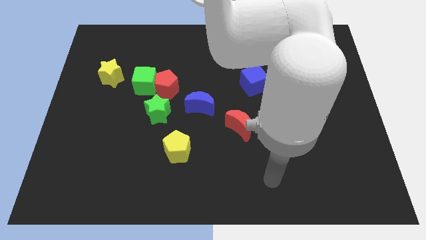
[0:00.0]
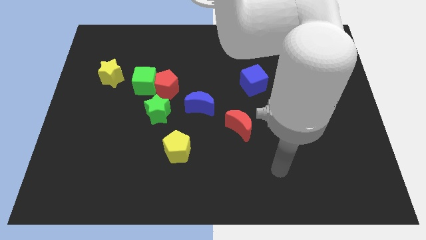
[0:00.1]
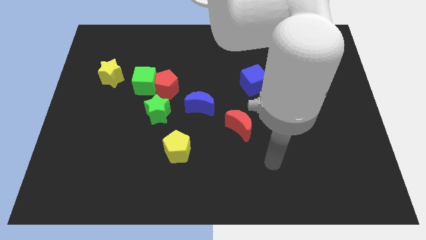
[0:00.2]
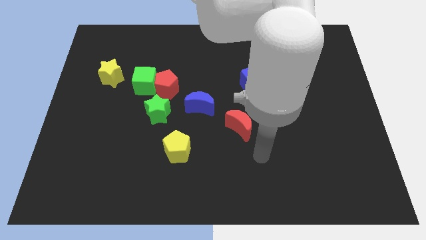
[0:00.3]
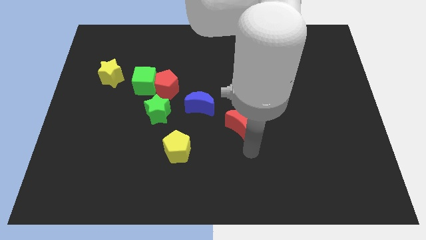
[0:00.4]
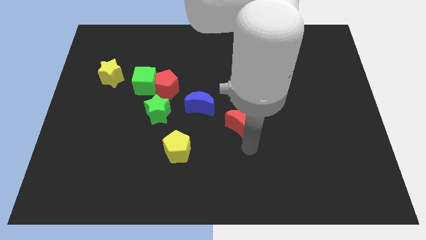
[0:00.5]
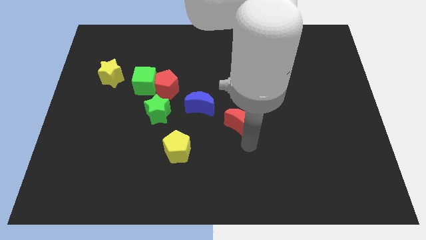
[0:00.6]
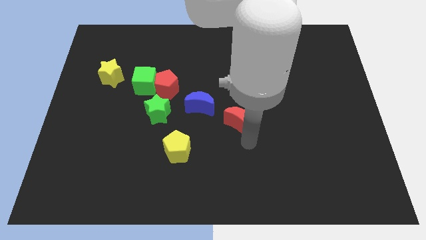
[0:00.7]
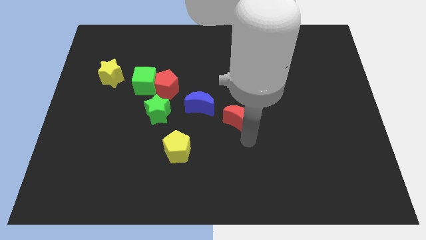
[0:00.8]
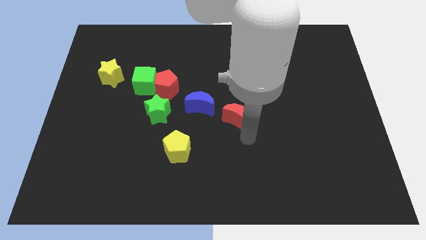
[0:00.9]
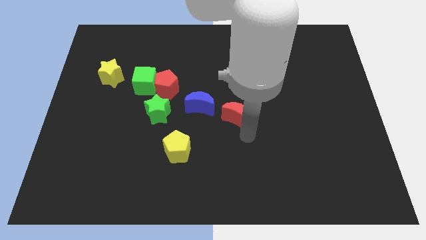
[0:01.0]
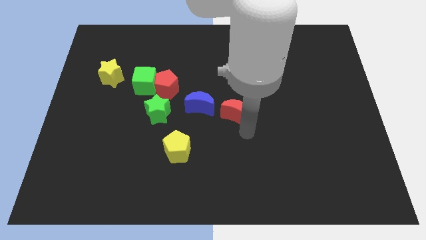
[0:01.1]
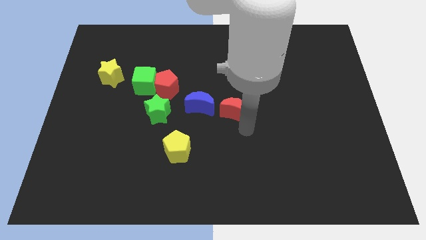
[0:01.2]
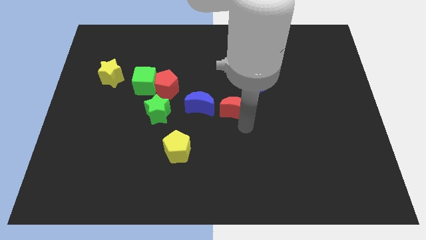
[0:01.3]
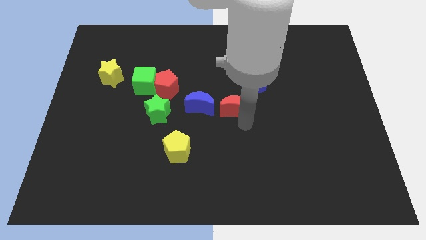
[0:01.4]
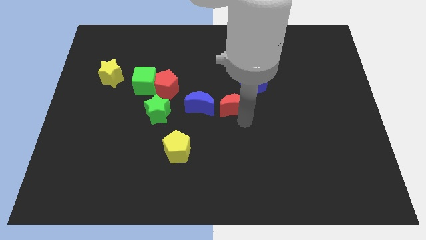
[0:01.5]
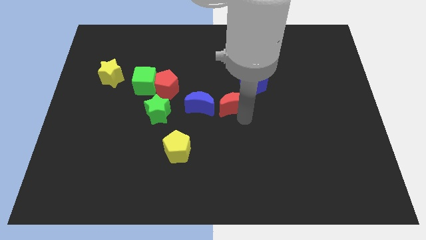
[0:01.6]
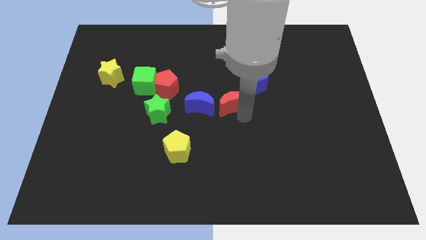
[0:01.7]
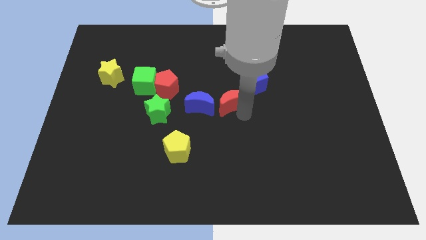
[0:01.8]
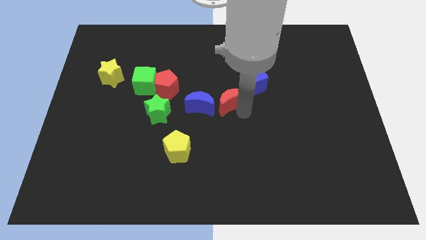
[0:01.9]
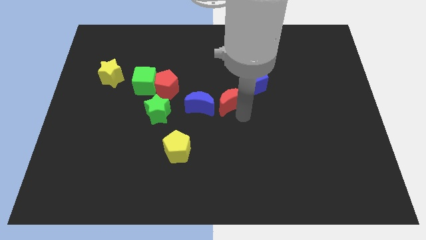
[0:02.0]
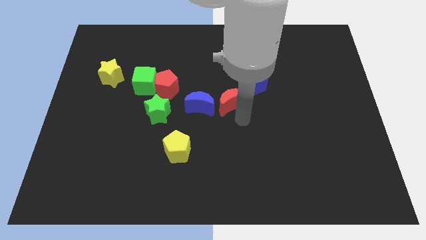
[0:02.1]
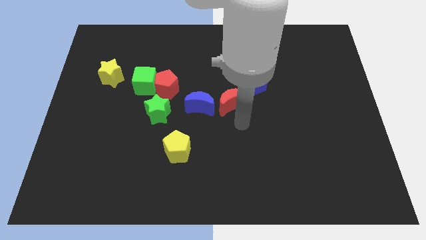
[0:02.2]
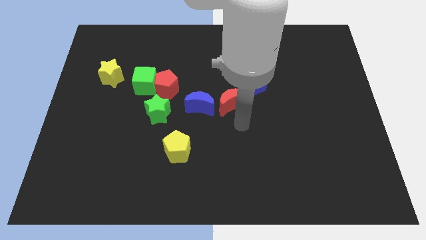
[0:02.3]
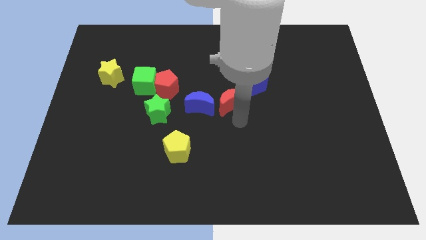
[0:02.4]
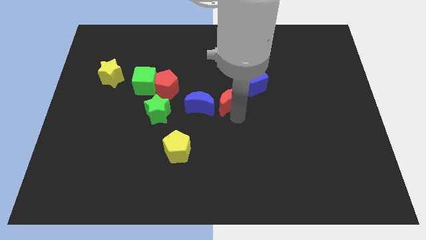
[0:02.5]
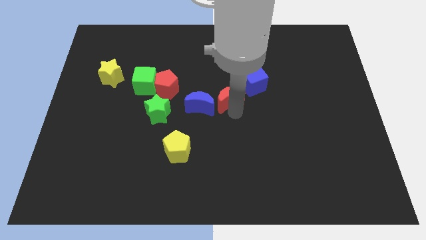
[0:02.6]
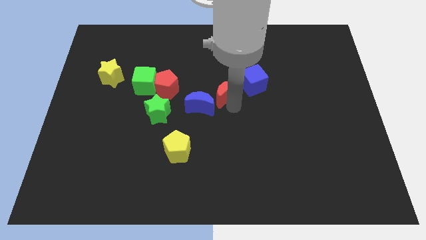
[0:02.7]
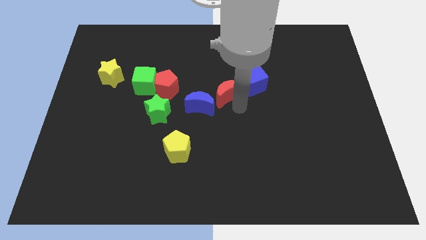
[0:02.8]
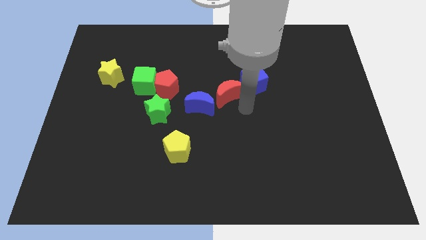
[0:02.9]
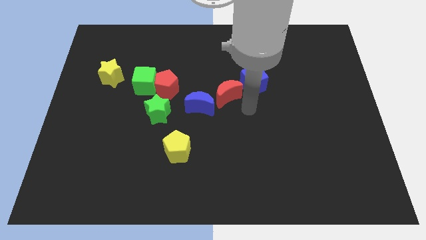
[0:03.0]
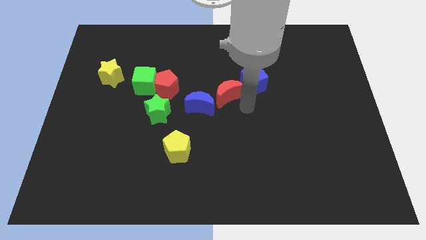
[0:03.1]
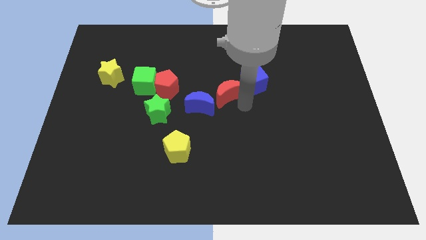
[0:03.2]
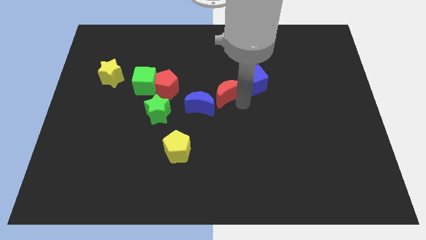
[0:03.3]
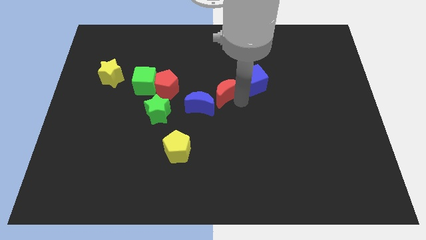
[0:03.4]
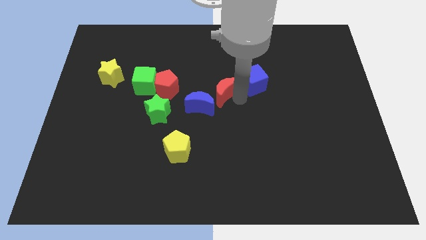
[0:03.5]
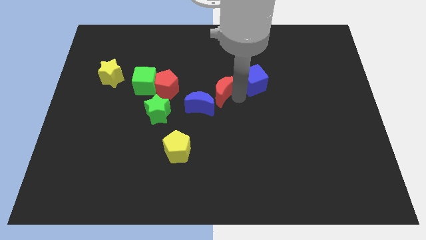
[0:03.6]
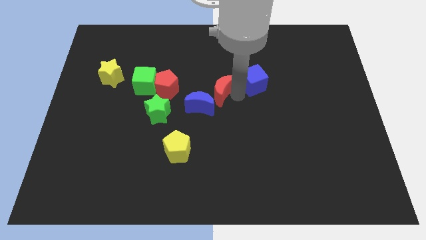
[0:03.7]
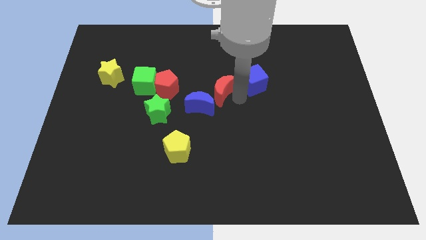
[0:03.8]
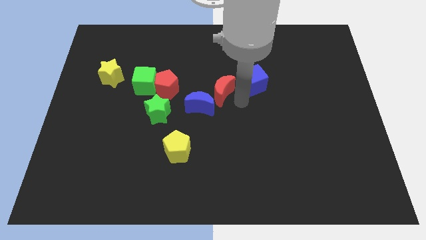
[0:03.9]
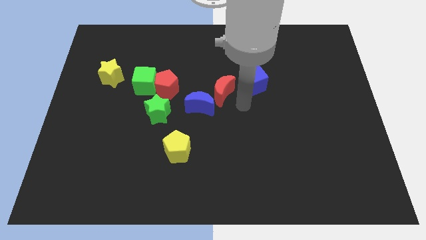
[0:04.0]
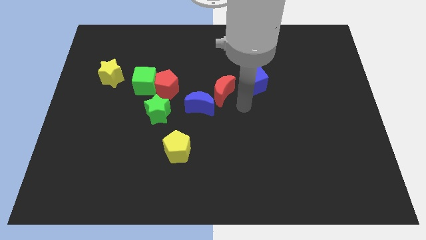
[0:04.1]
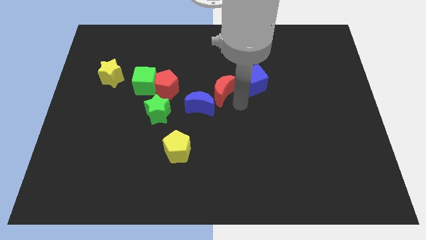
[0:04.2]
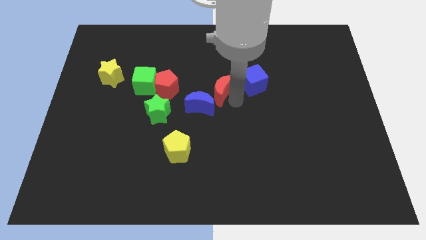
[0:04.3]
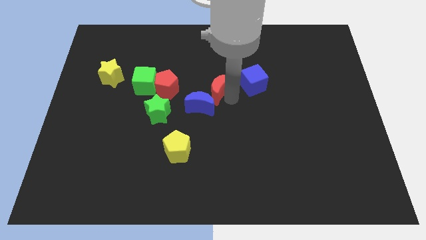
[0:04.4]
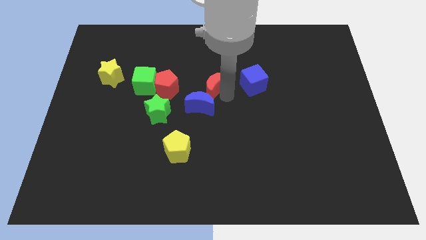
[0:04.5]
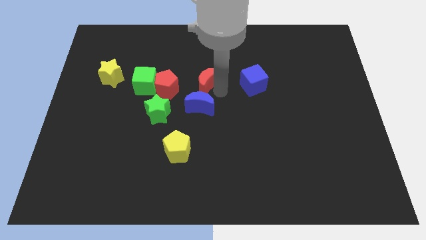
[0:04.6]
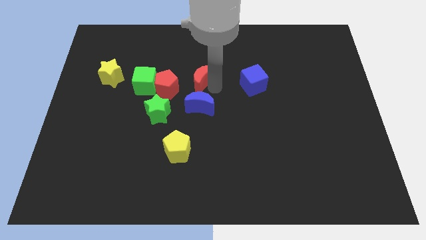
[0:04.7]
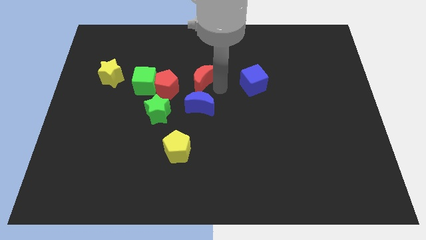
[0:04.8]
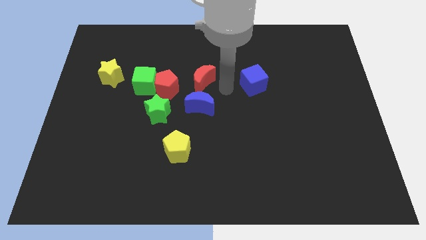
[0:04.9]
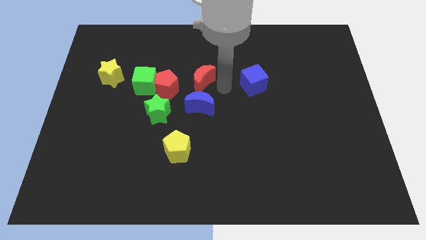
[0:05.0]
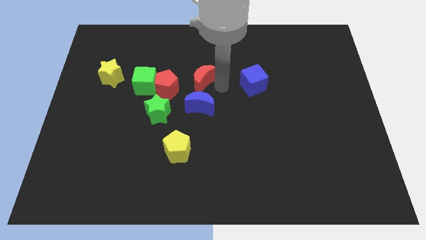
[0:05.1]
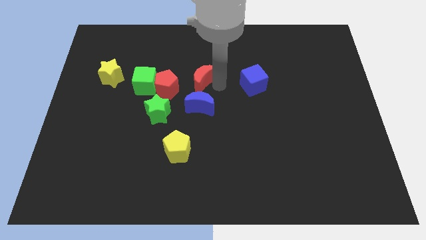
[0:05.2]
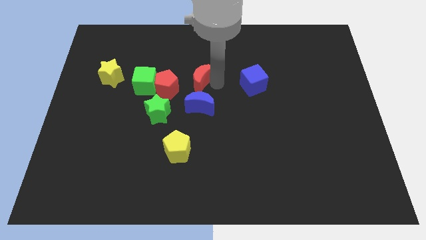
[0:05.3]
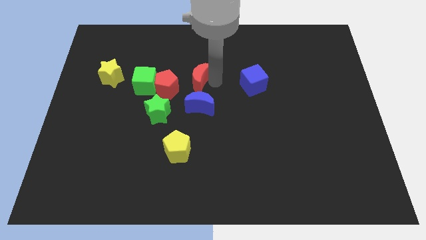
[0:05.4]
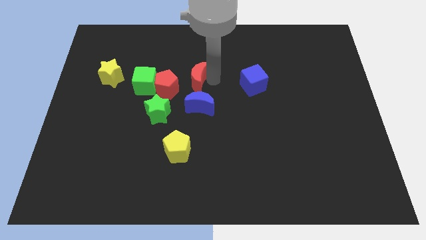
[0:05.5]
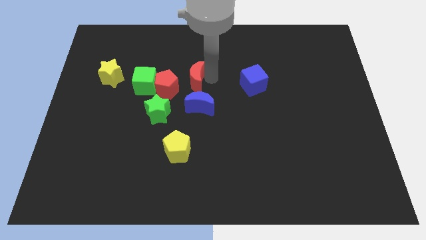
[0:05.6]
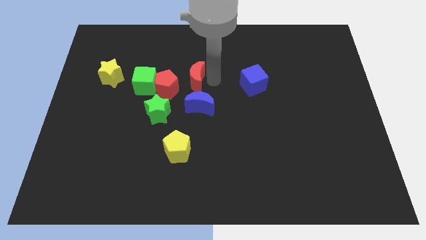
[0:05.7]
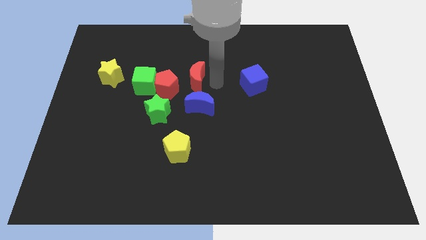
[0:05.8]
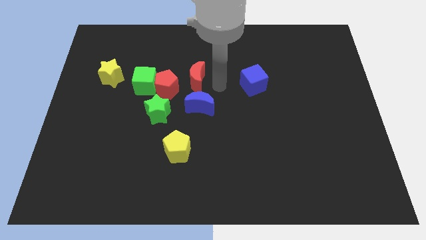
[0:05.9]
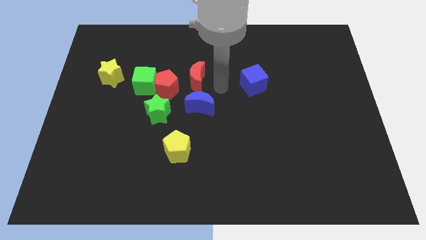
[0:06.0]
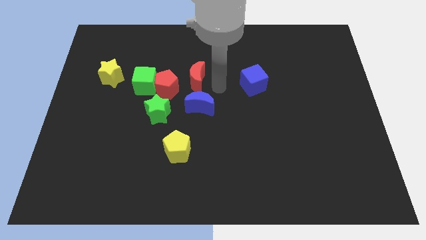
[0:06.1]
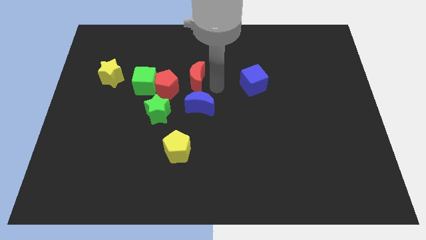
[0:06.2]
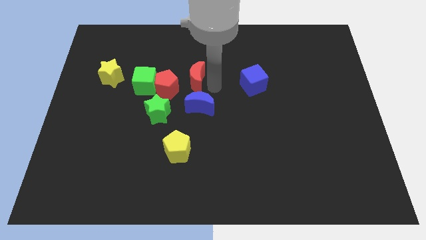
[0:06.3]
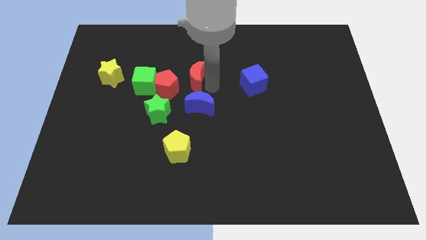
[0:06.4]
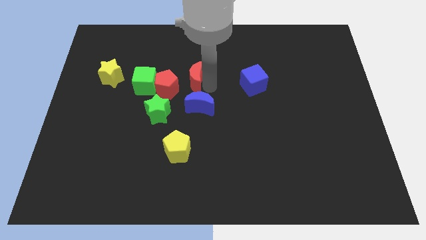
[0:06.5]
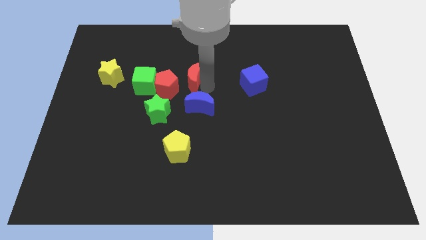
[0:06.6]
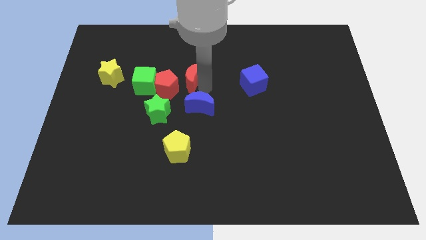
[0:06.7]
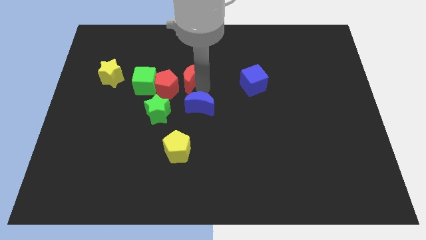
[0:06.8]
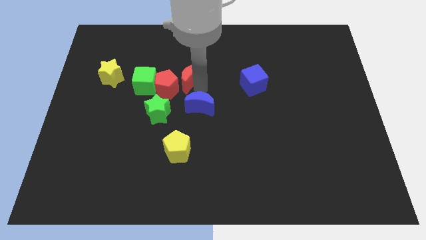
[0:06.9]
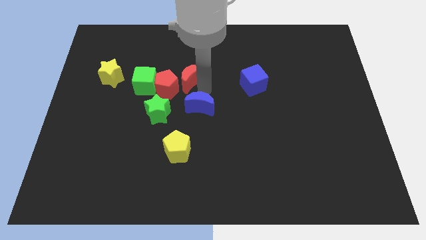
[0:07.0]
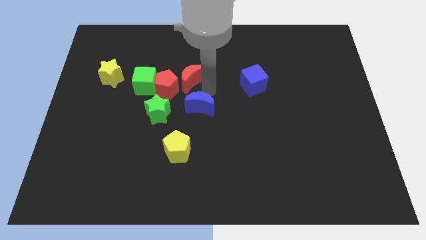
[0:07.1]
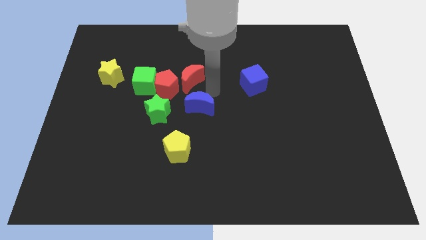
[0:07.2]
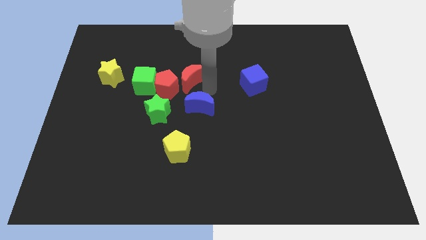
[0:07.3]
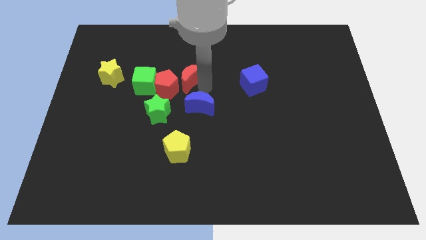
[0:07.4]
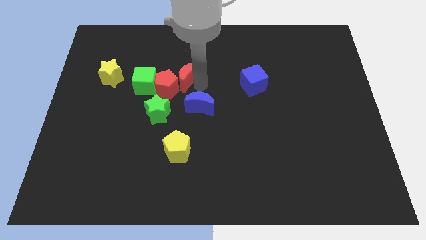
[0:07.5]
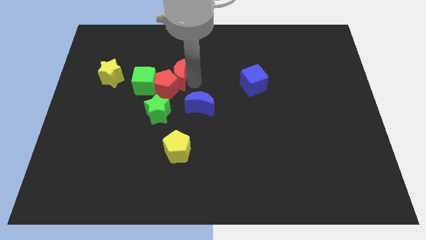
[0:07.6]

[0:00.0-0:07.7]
slide the red moon diagonally upwards and left

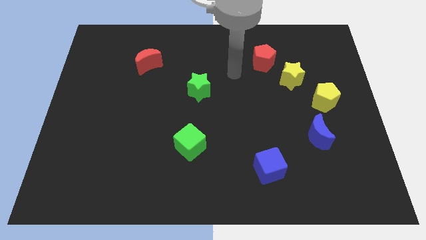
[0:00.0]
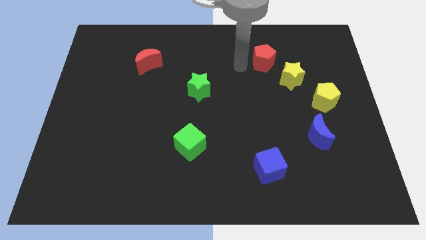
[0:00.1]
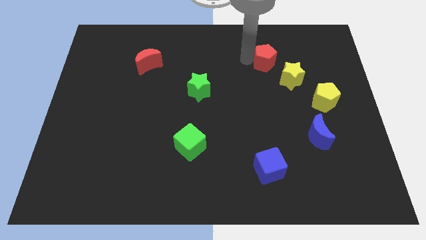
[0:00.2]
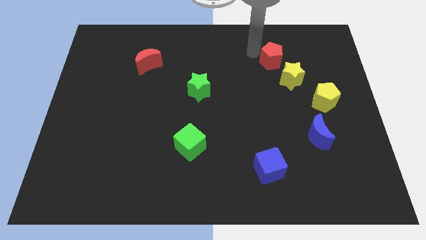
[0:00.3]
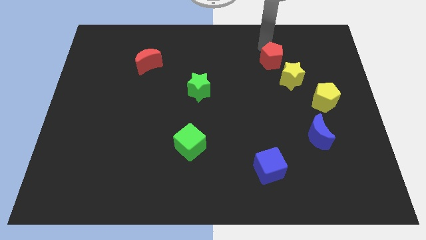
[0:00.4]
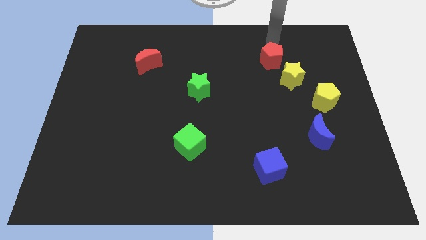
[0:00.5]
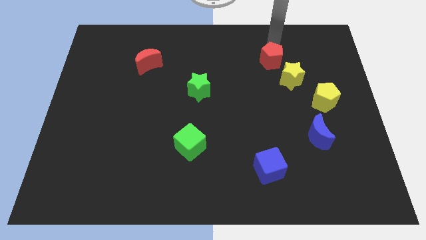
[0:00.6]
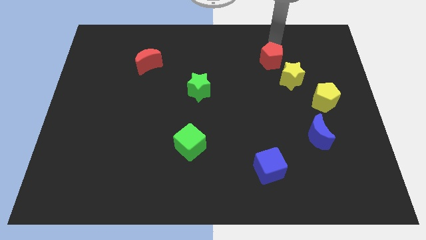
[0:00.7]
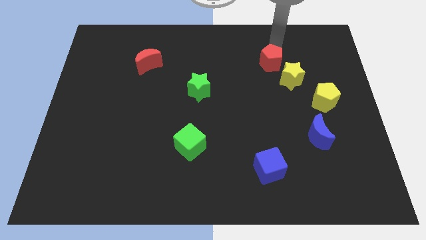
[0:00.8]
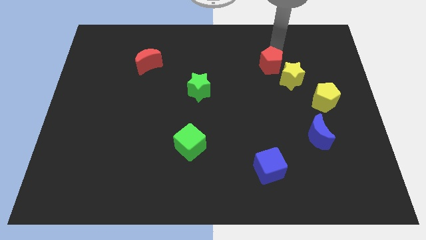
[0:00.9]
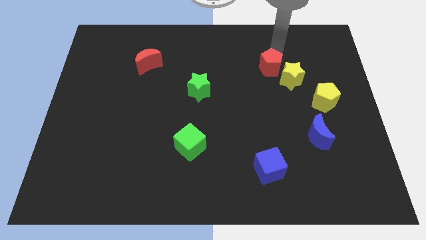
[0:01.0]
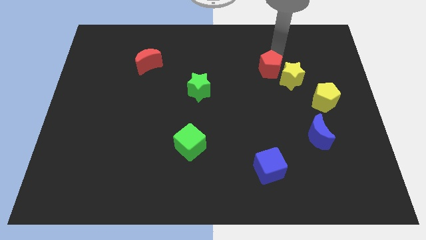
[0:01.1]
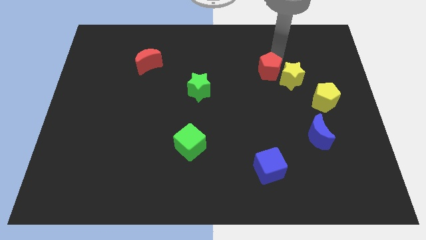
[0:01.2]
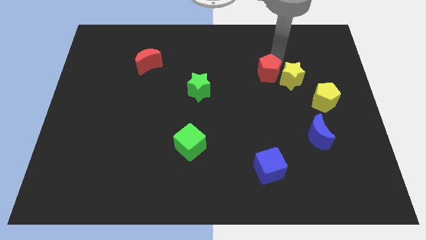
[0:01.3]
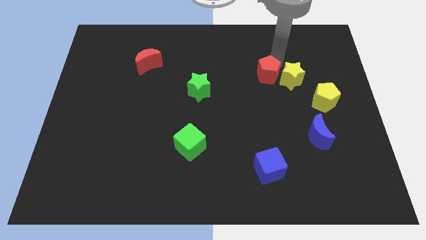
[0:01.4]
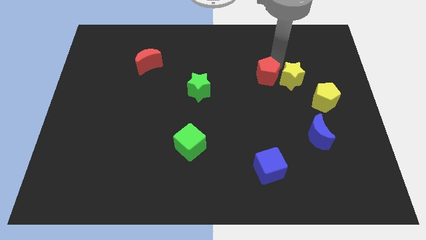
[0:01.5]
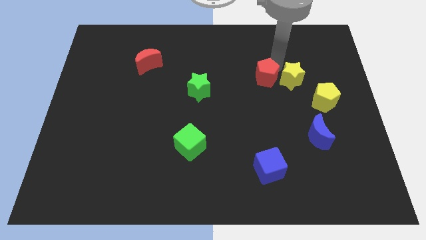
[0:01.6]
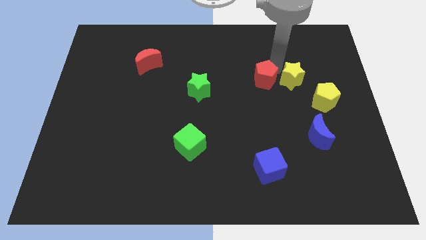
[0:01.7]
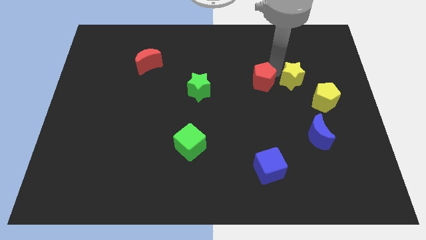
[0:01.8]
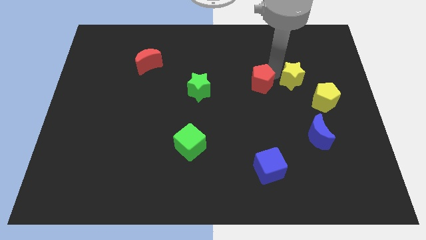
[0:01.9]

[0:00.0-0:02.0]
slide the red pentagon a little bit down
